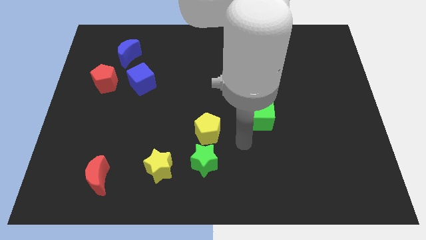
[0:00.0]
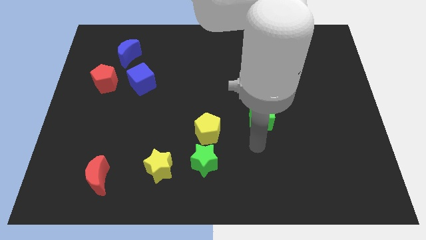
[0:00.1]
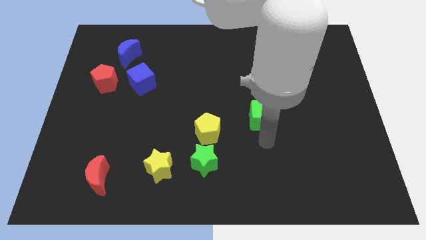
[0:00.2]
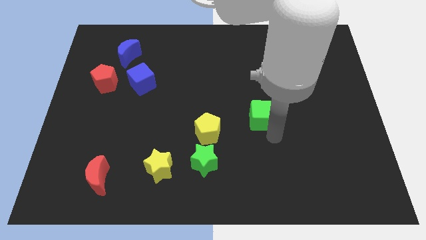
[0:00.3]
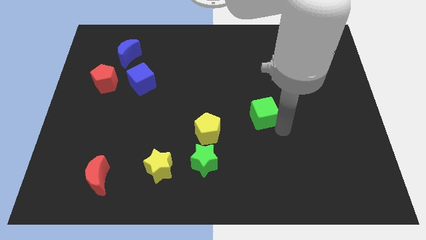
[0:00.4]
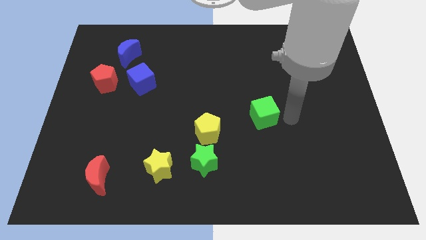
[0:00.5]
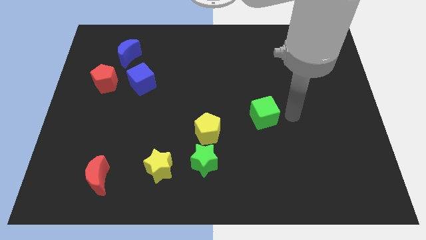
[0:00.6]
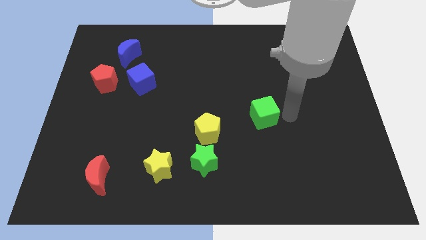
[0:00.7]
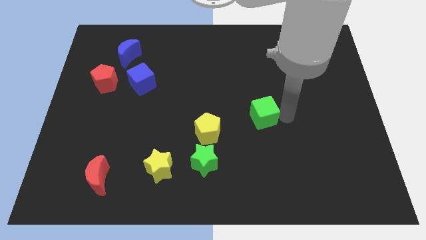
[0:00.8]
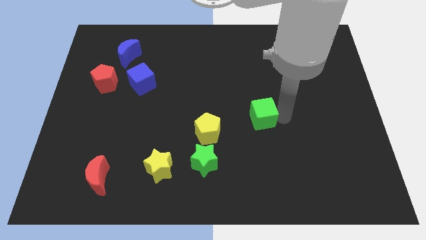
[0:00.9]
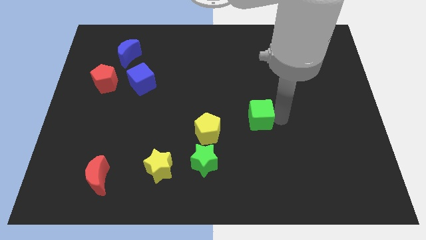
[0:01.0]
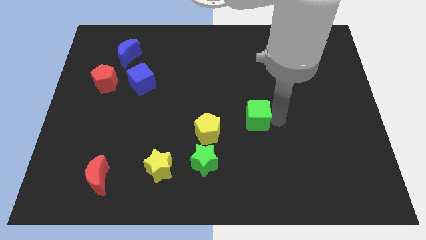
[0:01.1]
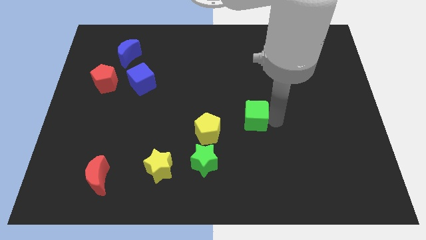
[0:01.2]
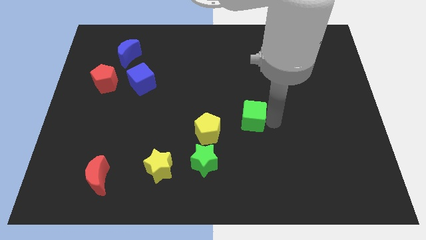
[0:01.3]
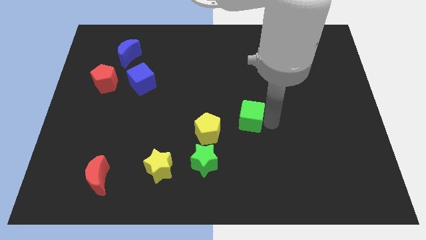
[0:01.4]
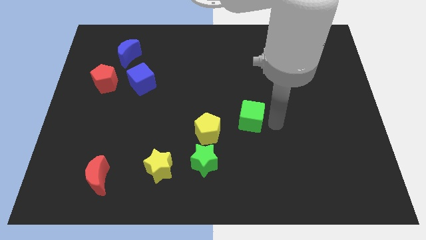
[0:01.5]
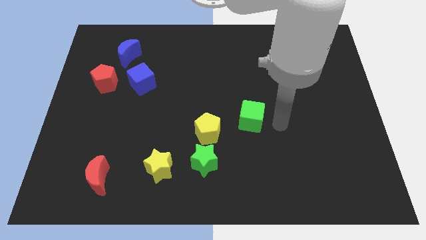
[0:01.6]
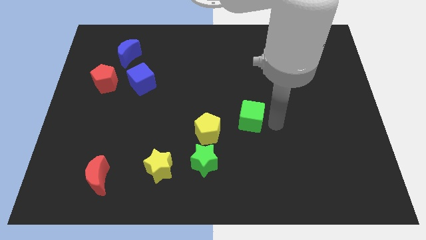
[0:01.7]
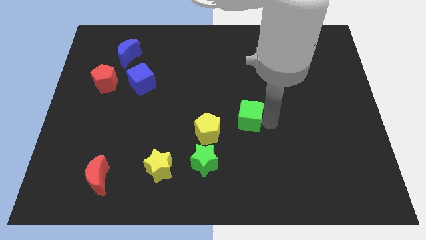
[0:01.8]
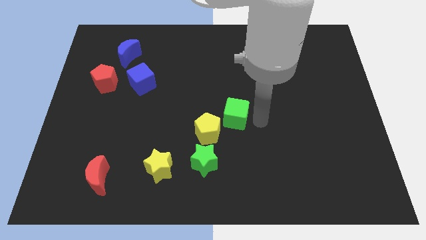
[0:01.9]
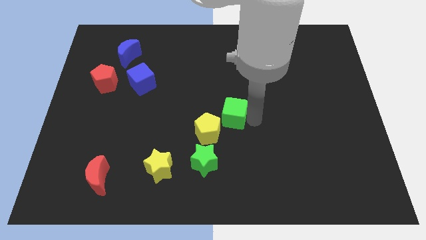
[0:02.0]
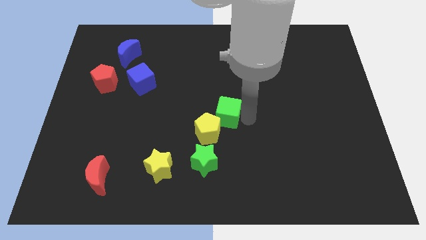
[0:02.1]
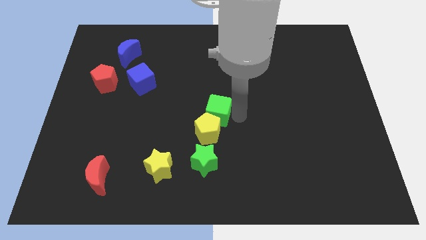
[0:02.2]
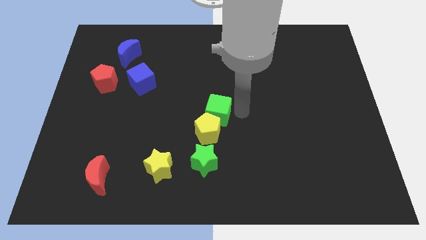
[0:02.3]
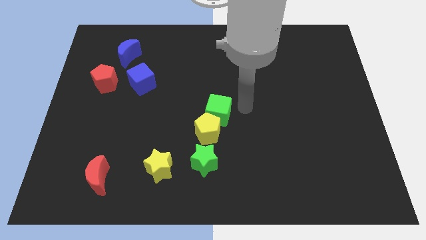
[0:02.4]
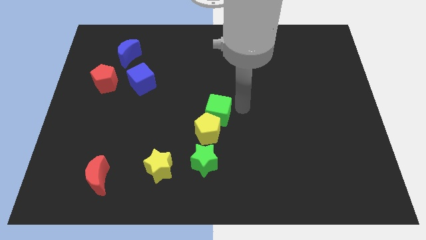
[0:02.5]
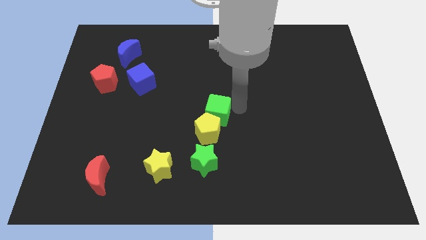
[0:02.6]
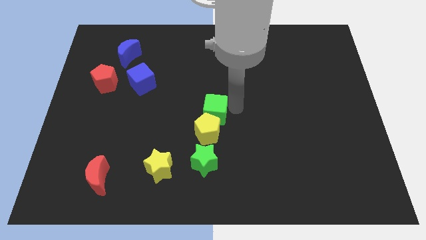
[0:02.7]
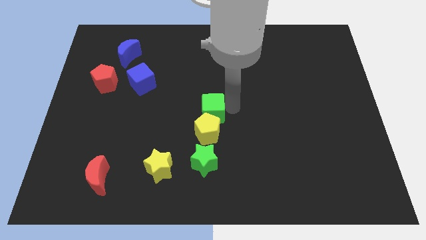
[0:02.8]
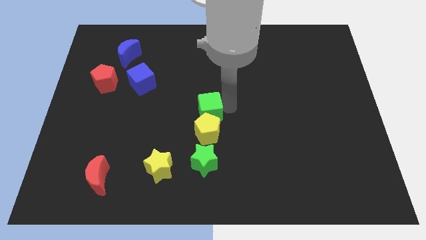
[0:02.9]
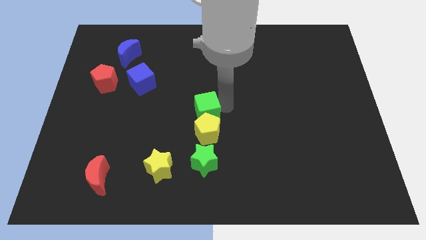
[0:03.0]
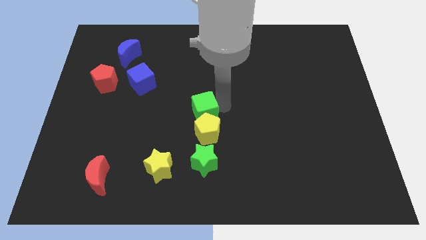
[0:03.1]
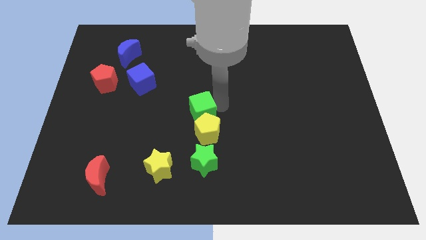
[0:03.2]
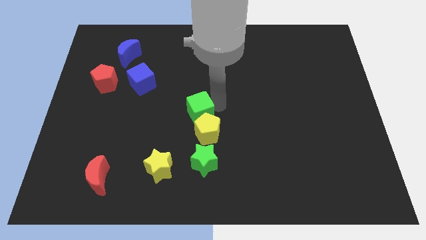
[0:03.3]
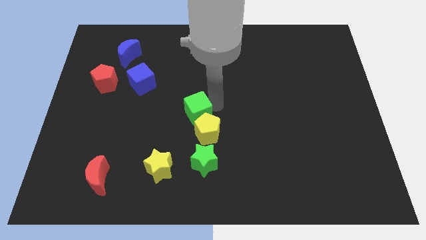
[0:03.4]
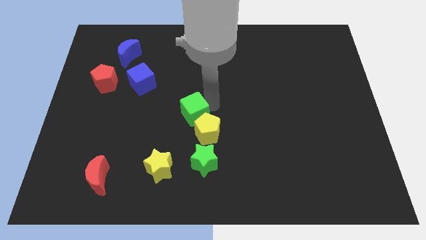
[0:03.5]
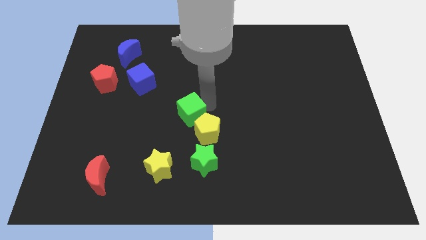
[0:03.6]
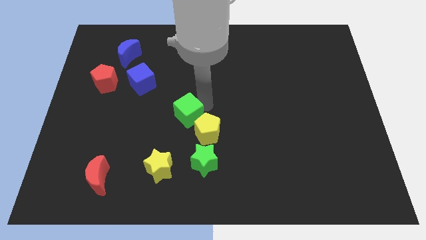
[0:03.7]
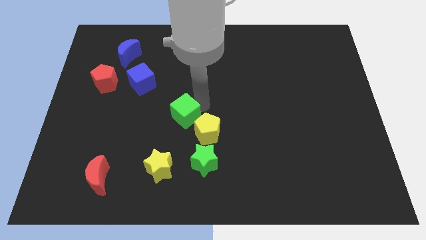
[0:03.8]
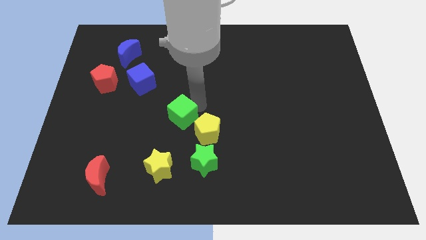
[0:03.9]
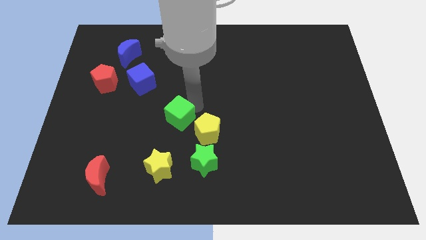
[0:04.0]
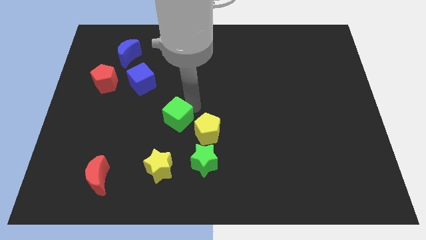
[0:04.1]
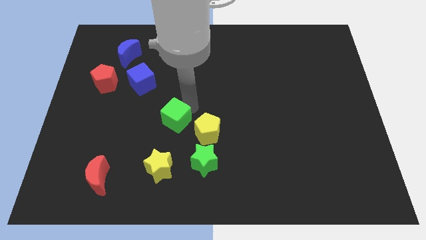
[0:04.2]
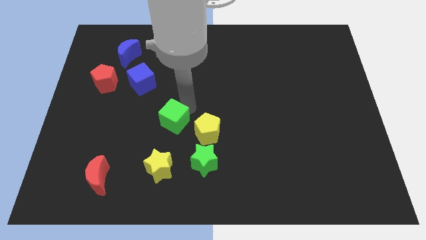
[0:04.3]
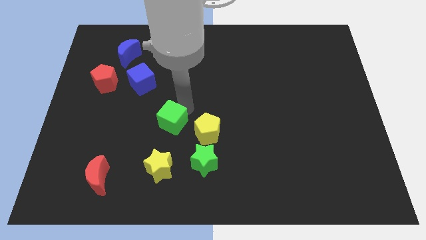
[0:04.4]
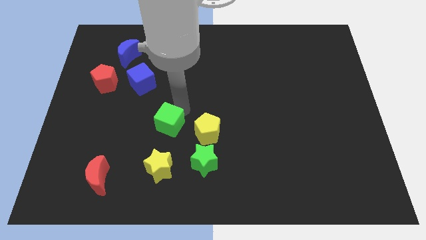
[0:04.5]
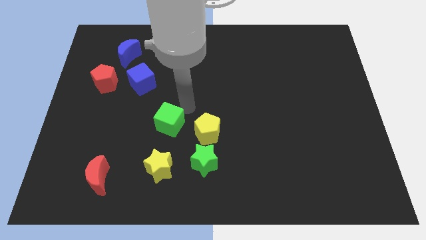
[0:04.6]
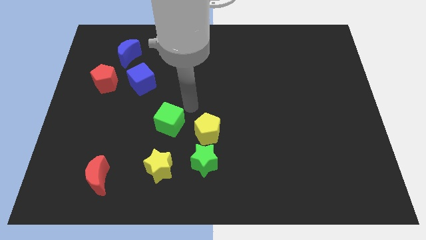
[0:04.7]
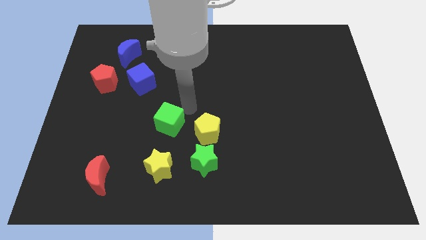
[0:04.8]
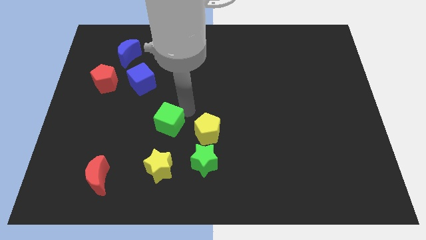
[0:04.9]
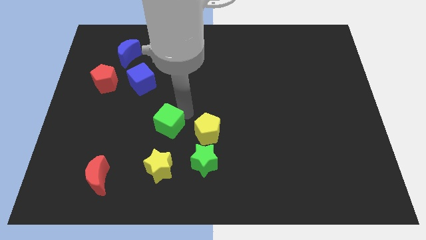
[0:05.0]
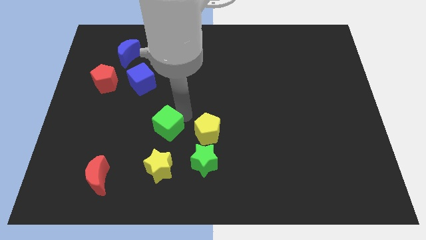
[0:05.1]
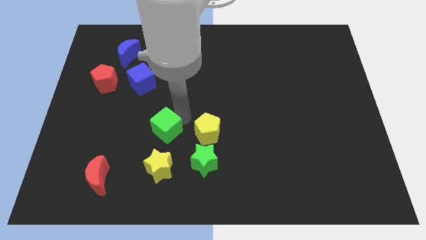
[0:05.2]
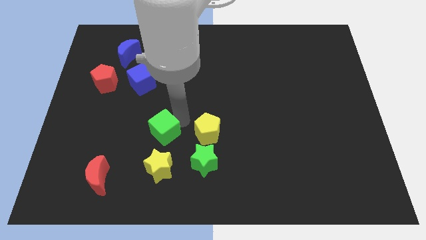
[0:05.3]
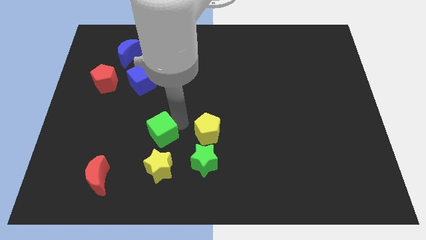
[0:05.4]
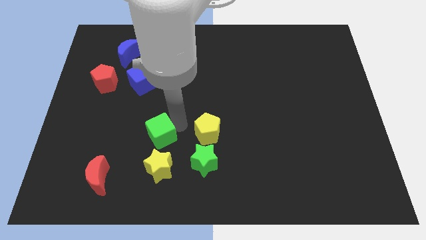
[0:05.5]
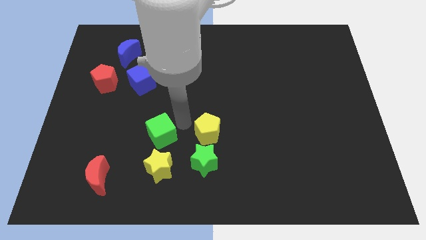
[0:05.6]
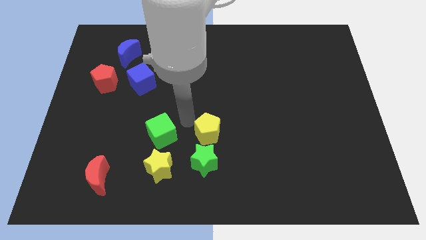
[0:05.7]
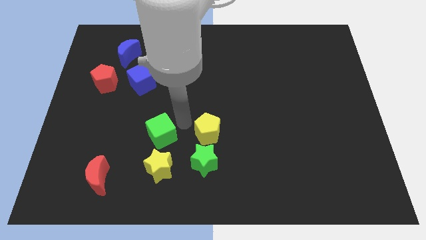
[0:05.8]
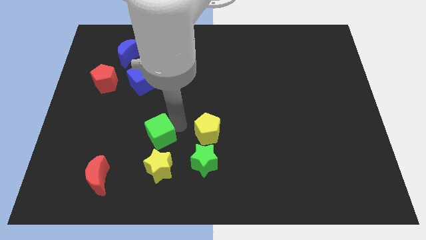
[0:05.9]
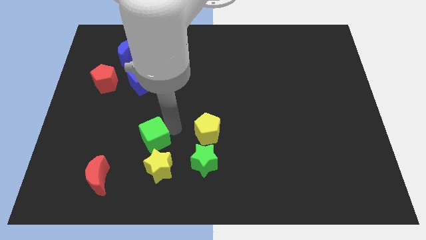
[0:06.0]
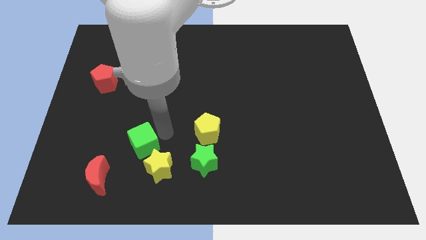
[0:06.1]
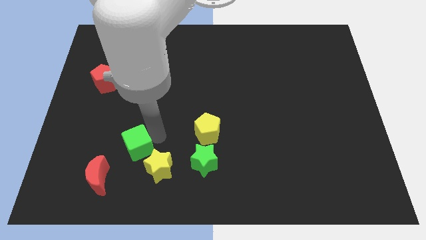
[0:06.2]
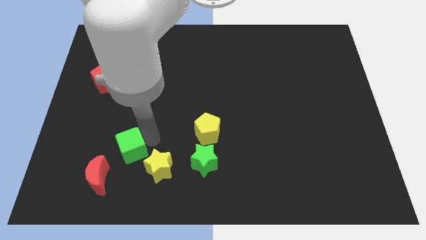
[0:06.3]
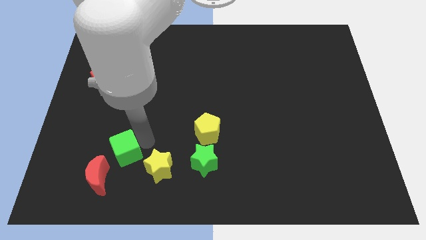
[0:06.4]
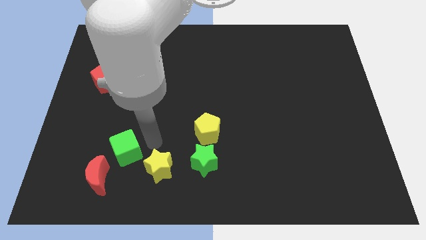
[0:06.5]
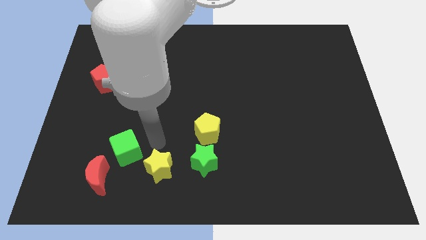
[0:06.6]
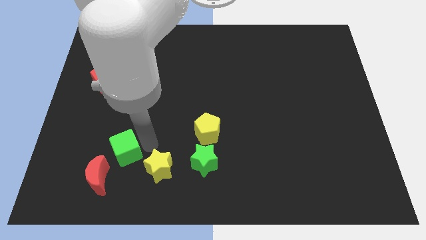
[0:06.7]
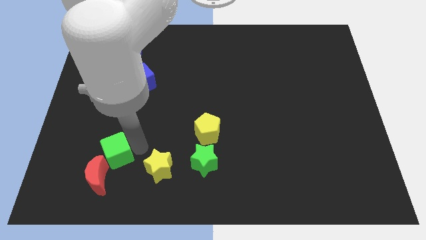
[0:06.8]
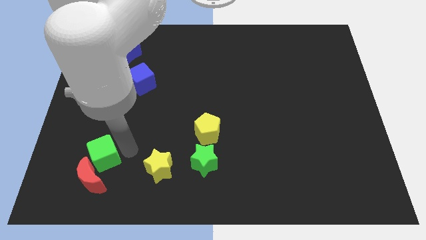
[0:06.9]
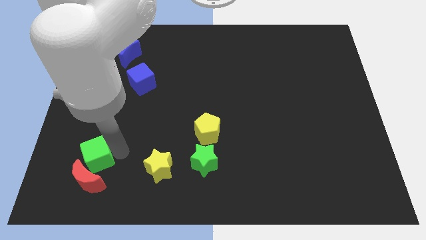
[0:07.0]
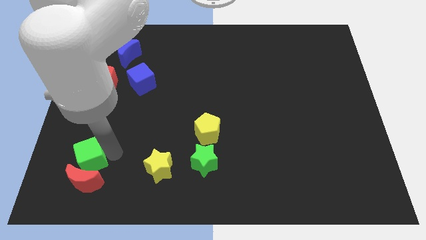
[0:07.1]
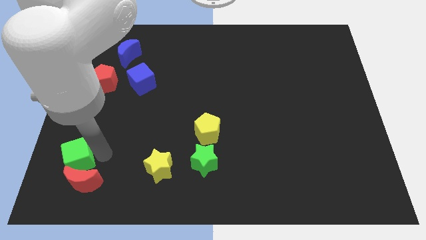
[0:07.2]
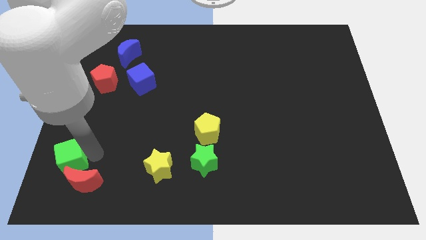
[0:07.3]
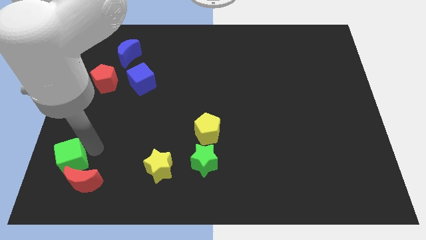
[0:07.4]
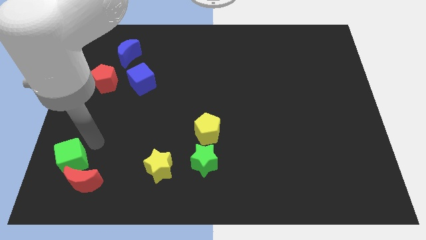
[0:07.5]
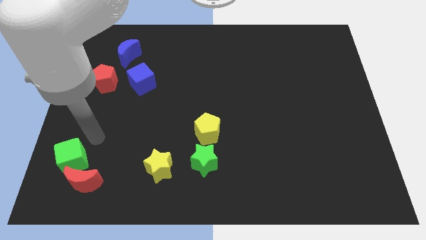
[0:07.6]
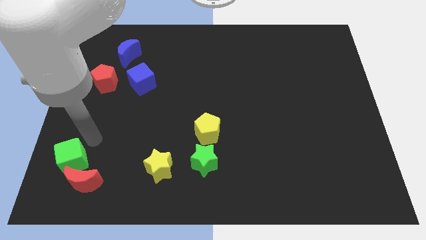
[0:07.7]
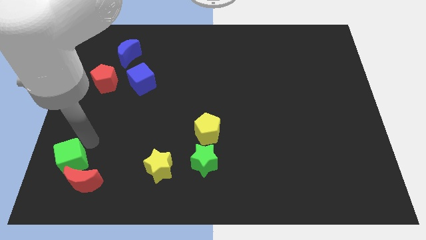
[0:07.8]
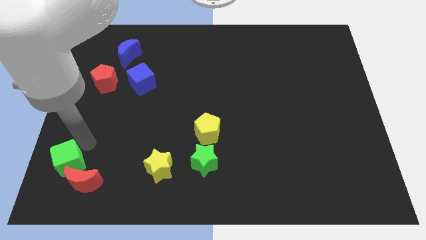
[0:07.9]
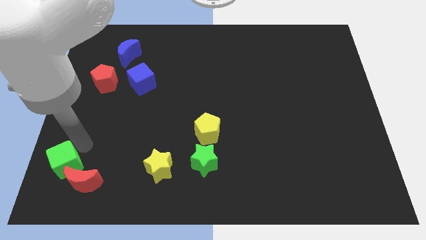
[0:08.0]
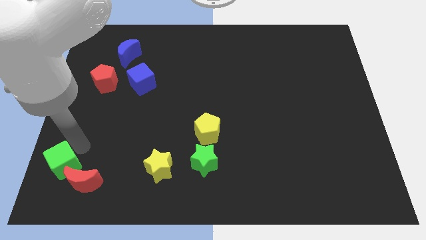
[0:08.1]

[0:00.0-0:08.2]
slide the green cube to the bottom left
